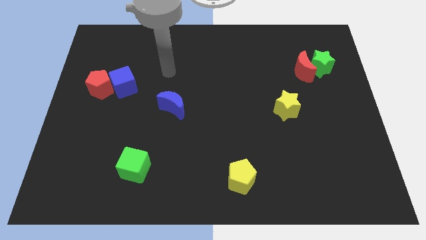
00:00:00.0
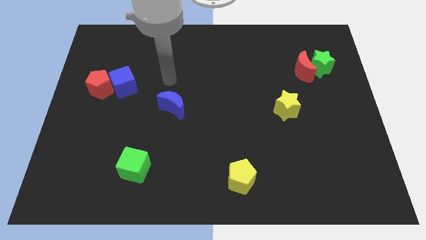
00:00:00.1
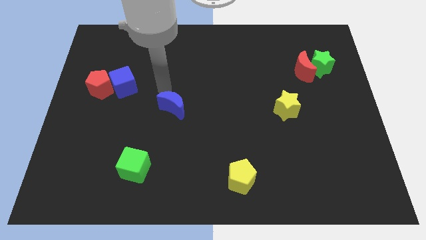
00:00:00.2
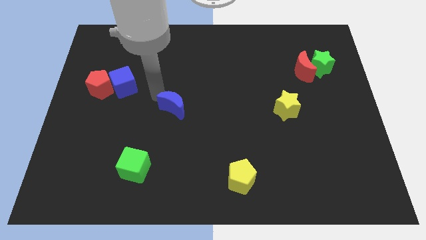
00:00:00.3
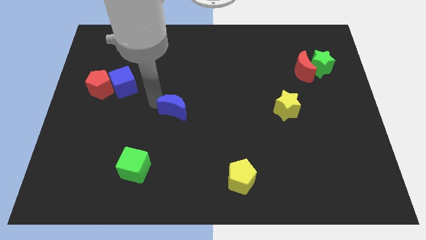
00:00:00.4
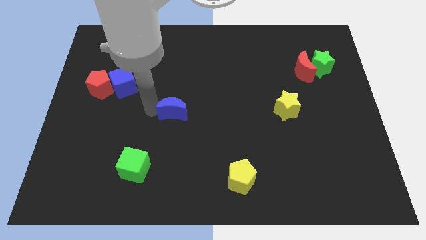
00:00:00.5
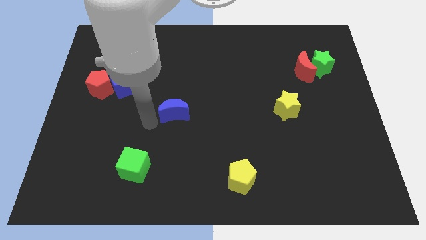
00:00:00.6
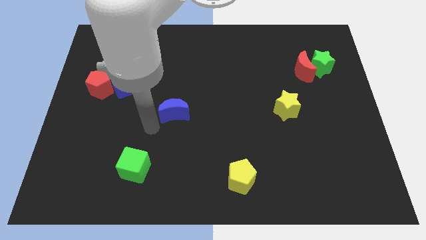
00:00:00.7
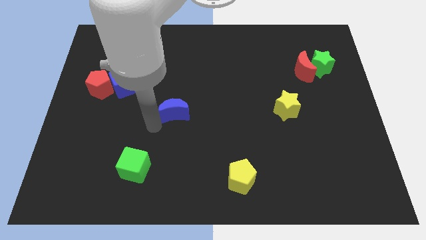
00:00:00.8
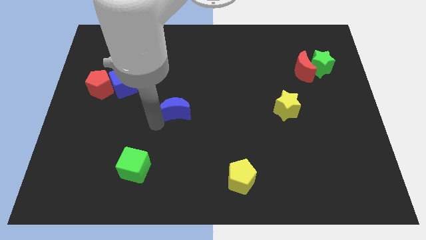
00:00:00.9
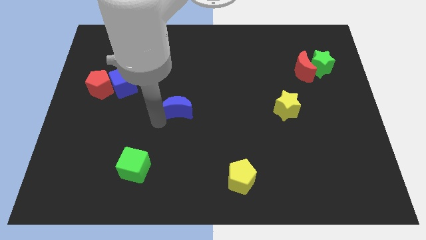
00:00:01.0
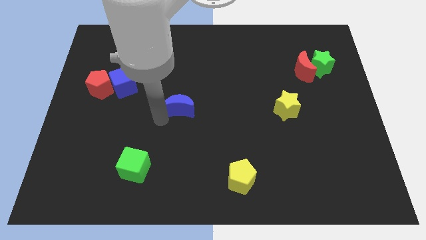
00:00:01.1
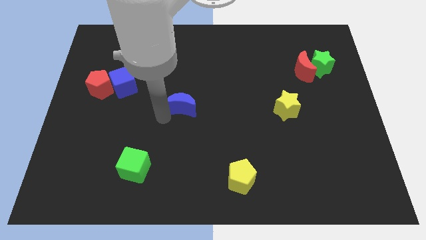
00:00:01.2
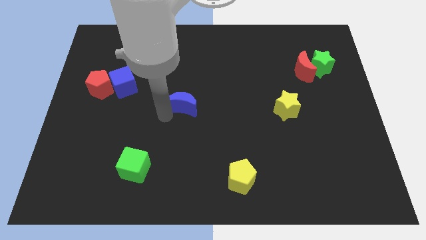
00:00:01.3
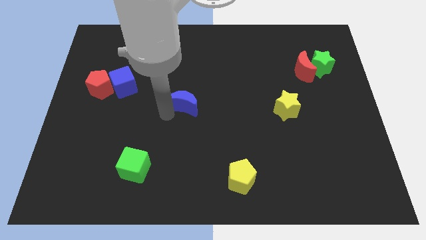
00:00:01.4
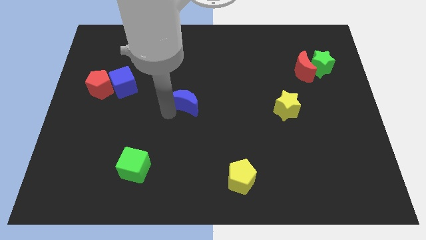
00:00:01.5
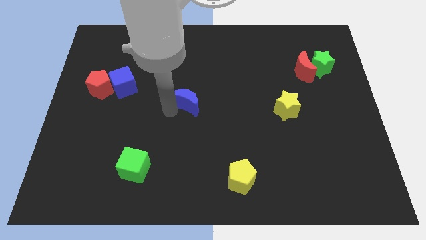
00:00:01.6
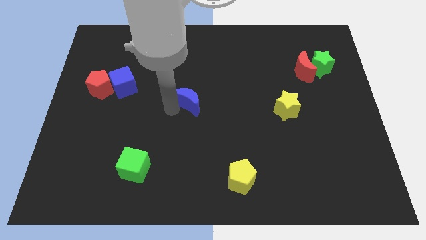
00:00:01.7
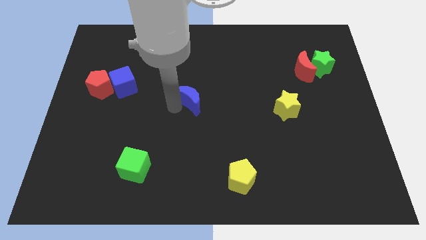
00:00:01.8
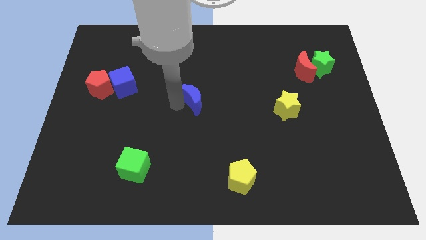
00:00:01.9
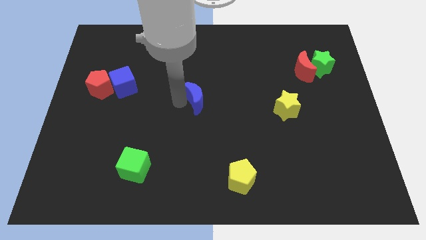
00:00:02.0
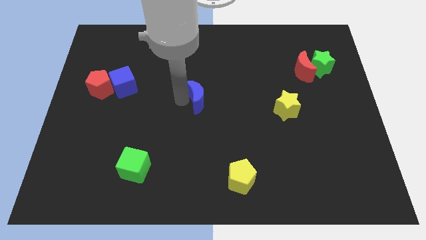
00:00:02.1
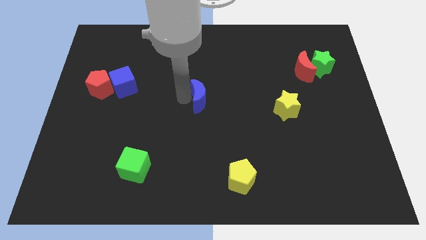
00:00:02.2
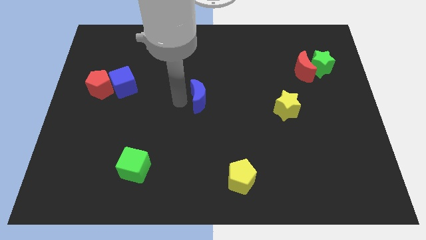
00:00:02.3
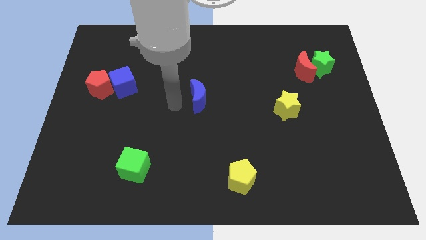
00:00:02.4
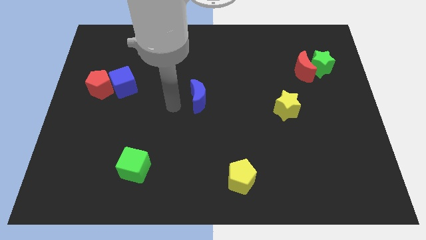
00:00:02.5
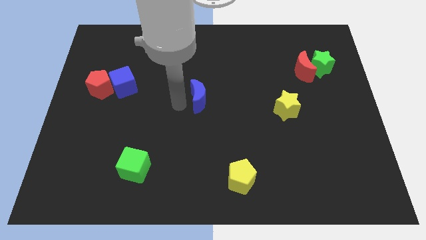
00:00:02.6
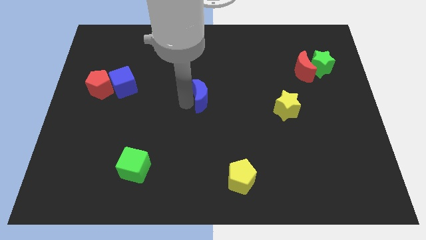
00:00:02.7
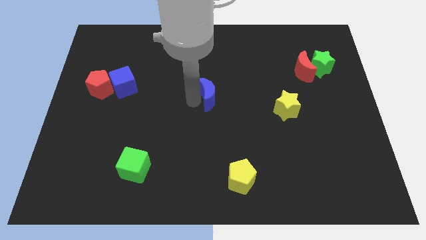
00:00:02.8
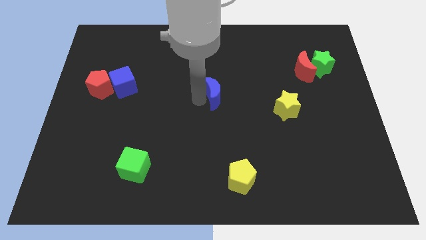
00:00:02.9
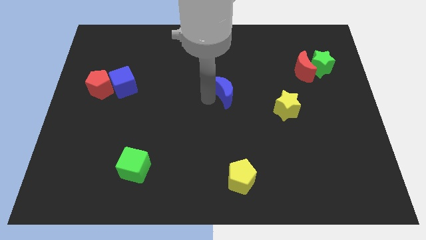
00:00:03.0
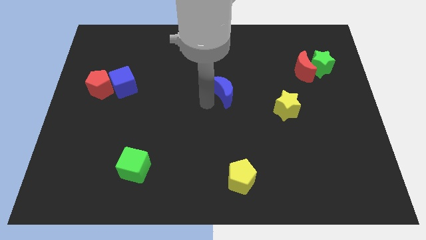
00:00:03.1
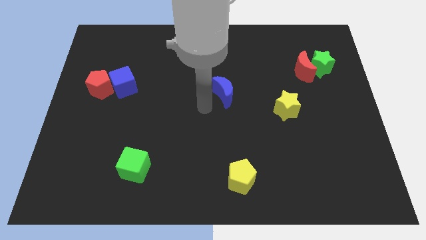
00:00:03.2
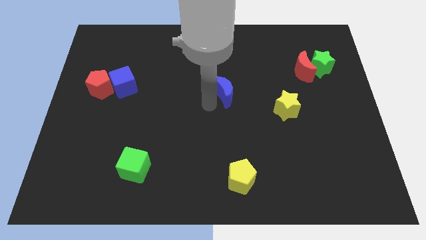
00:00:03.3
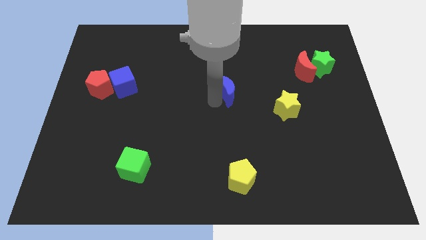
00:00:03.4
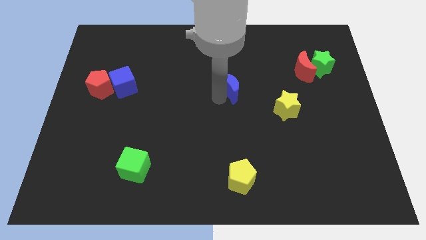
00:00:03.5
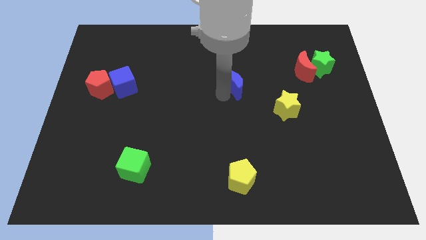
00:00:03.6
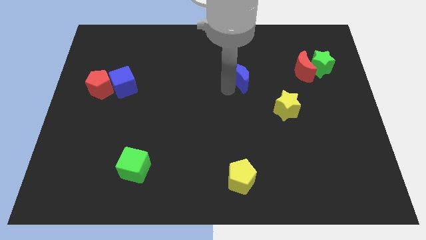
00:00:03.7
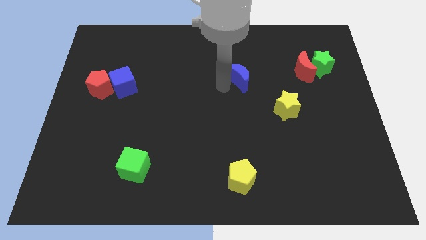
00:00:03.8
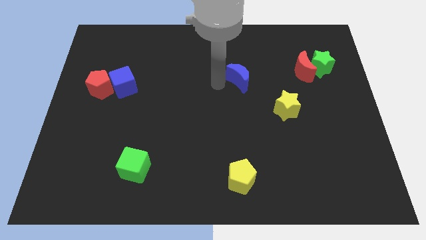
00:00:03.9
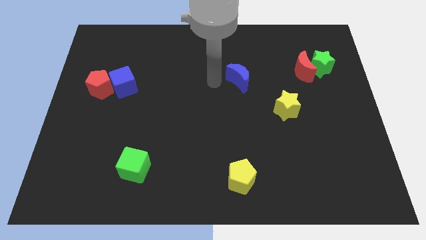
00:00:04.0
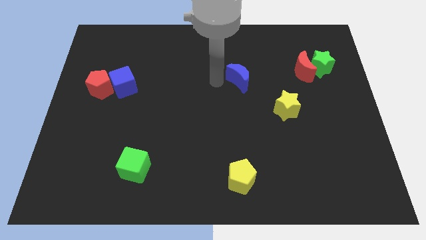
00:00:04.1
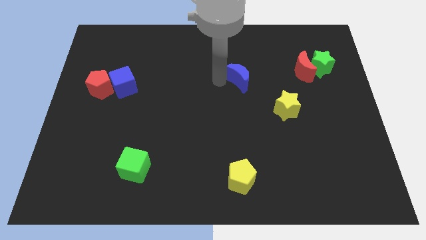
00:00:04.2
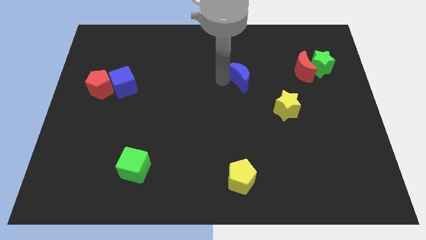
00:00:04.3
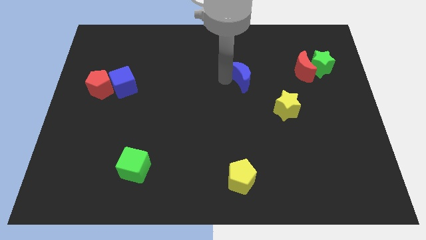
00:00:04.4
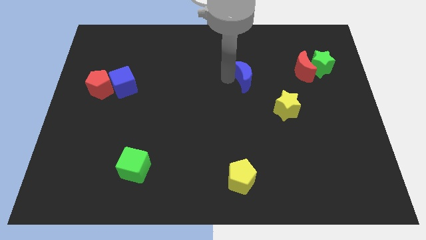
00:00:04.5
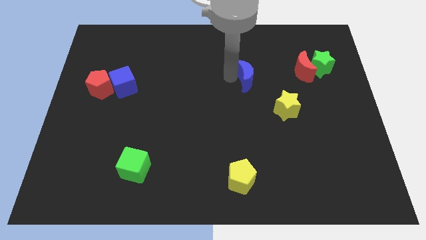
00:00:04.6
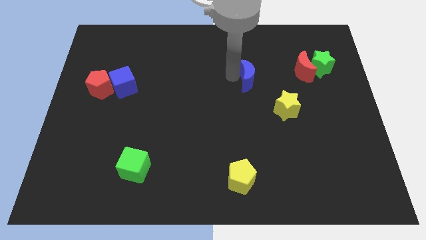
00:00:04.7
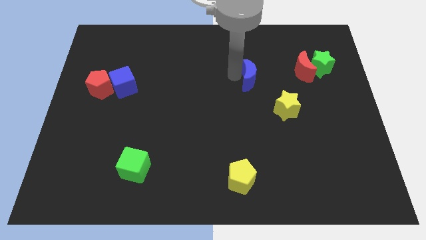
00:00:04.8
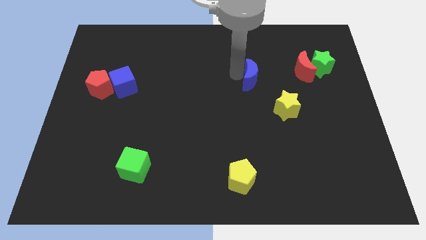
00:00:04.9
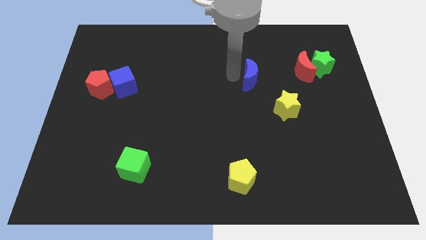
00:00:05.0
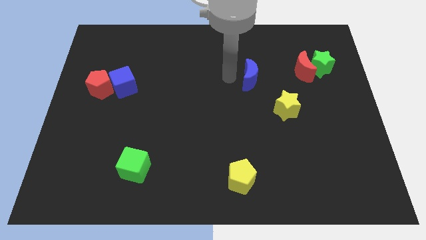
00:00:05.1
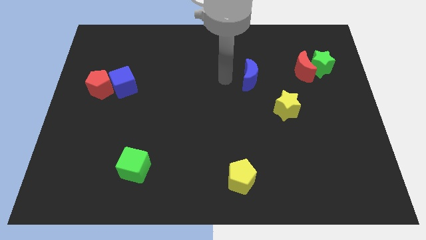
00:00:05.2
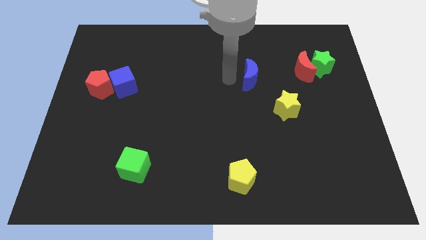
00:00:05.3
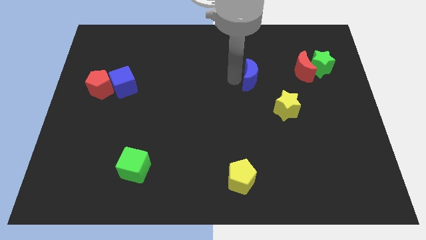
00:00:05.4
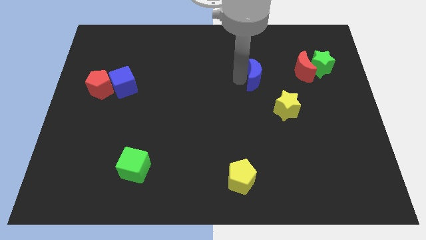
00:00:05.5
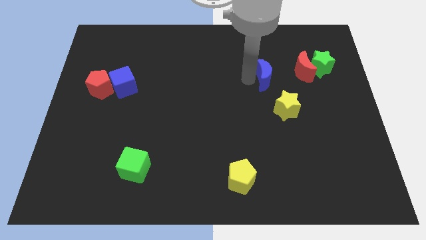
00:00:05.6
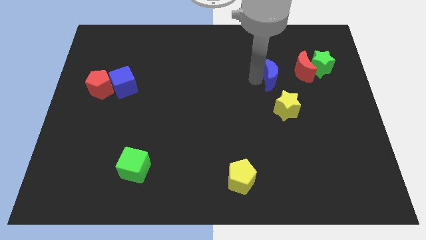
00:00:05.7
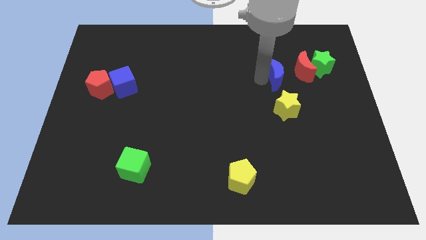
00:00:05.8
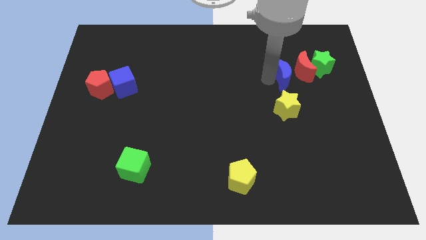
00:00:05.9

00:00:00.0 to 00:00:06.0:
put the blue moon close to the red moon

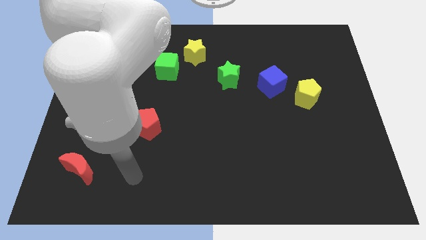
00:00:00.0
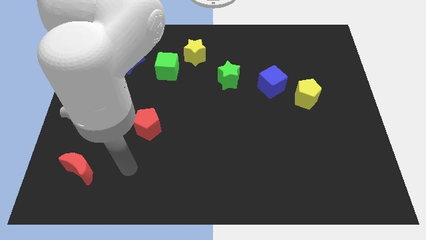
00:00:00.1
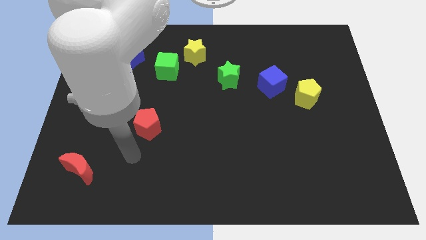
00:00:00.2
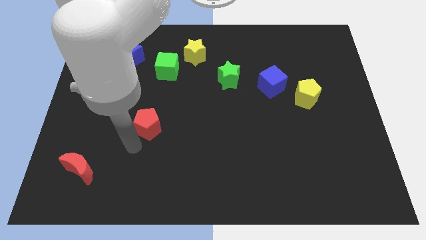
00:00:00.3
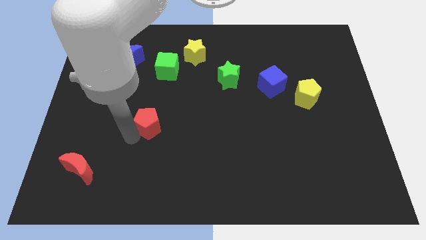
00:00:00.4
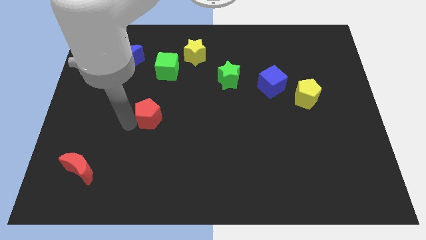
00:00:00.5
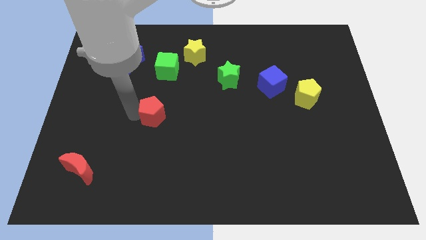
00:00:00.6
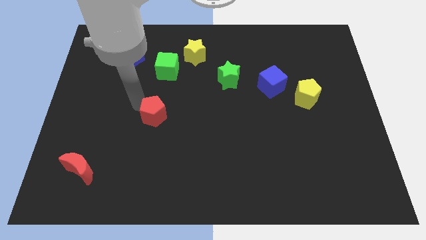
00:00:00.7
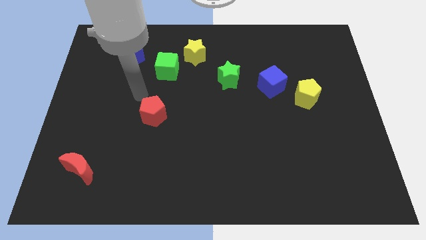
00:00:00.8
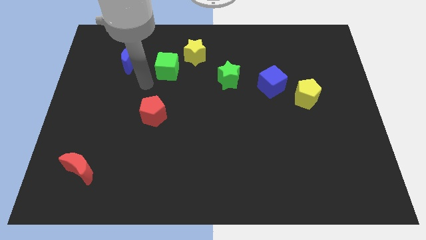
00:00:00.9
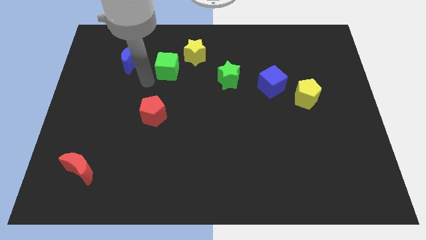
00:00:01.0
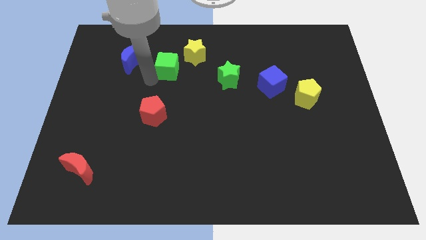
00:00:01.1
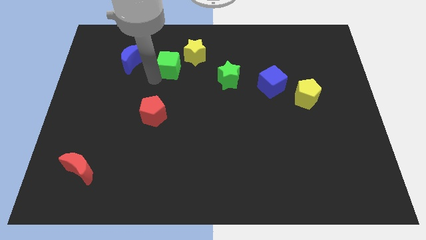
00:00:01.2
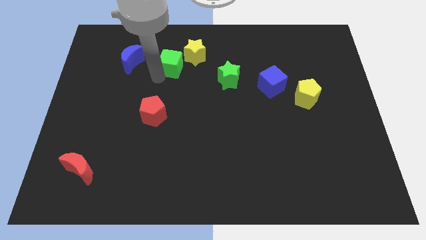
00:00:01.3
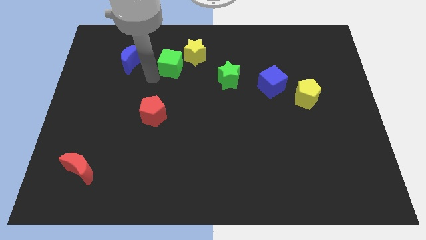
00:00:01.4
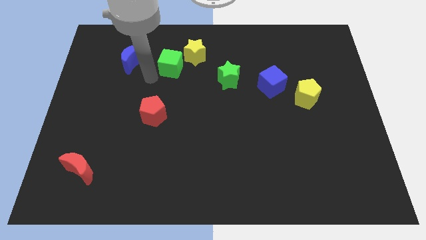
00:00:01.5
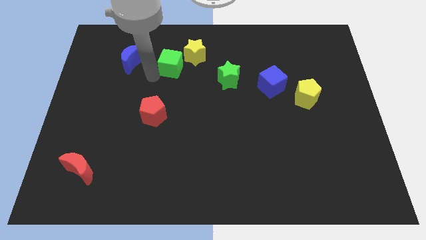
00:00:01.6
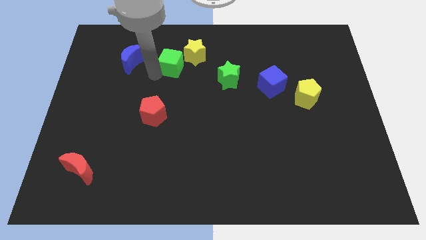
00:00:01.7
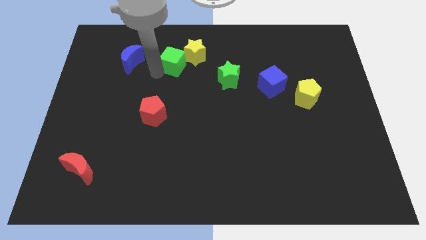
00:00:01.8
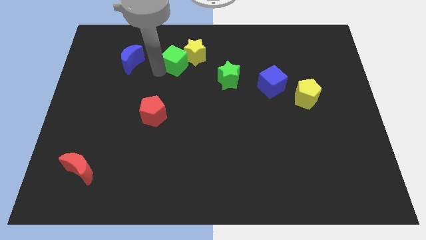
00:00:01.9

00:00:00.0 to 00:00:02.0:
slide the green cube next to the yellow star
